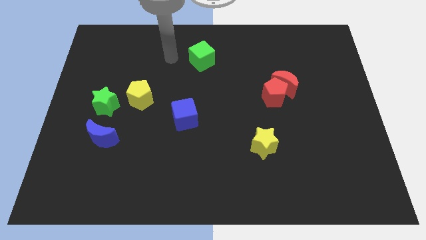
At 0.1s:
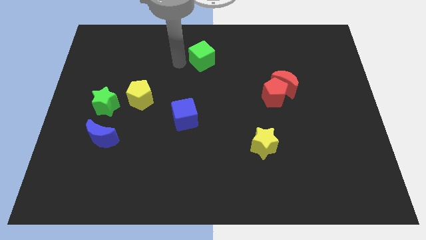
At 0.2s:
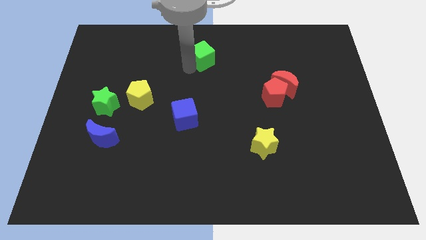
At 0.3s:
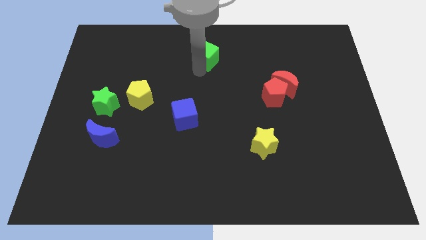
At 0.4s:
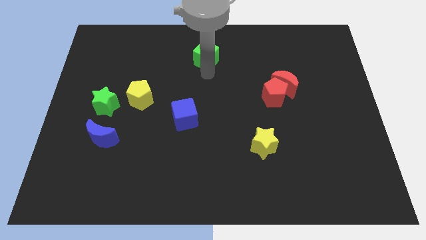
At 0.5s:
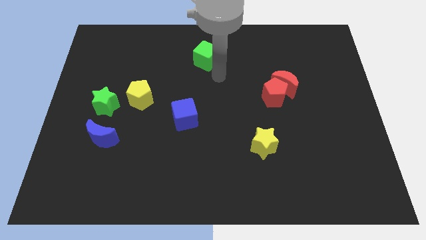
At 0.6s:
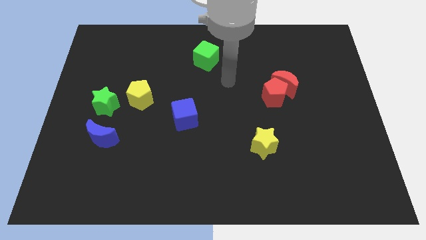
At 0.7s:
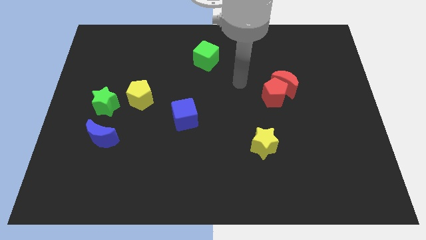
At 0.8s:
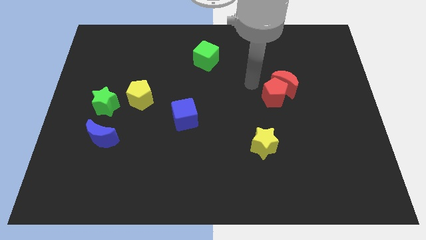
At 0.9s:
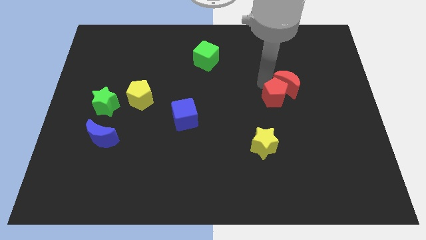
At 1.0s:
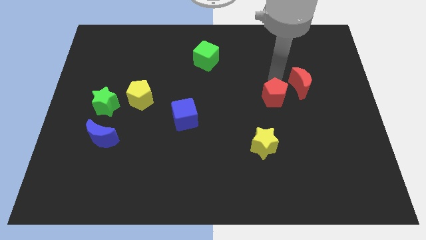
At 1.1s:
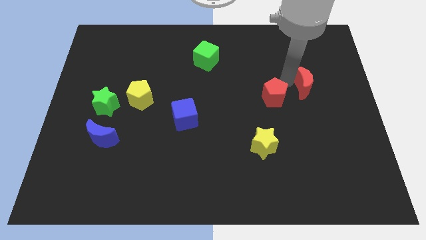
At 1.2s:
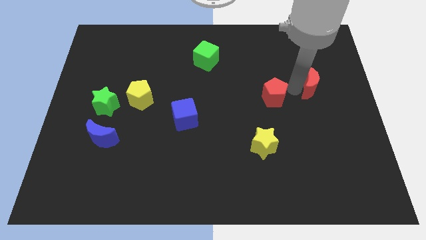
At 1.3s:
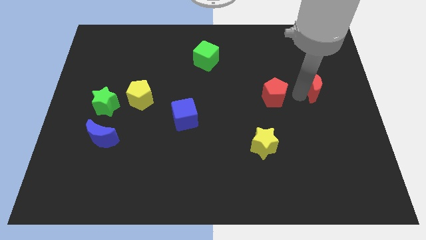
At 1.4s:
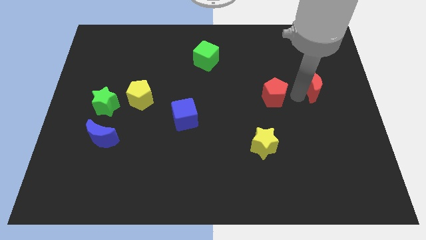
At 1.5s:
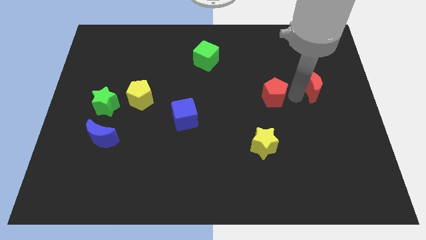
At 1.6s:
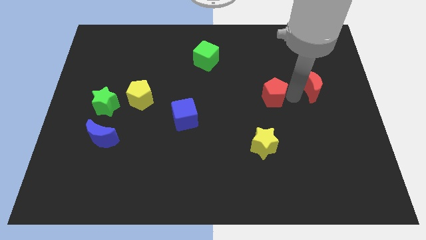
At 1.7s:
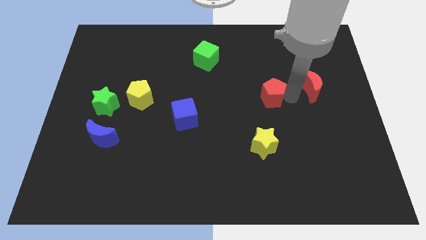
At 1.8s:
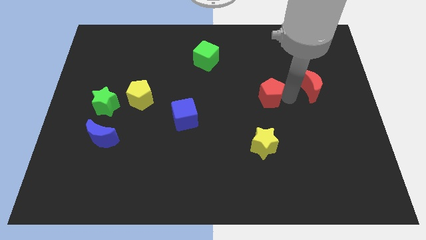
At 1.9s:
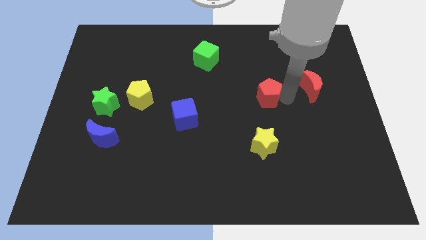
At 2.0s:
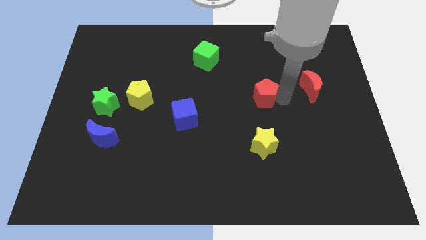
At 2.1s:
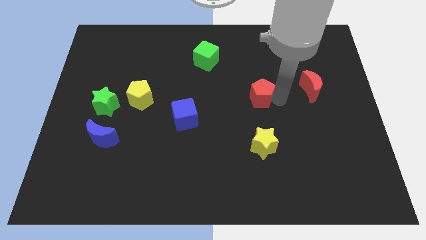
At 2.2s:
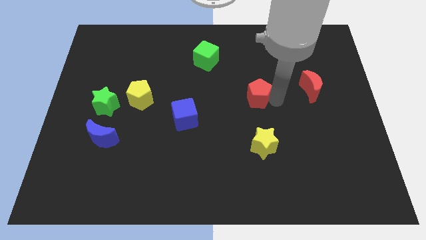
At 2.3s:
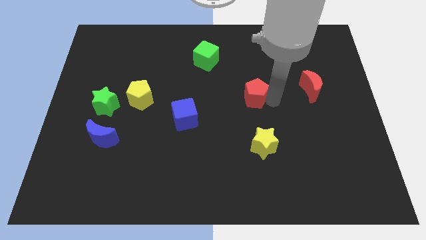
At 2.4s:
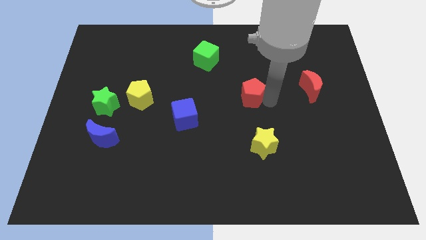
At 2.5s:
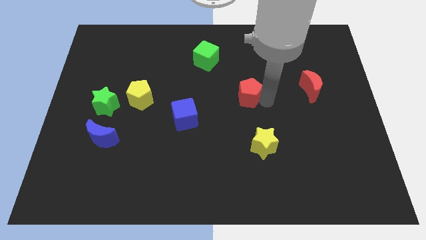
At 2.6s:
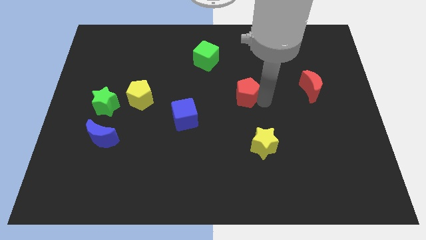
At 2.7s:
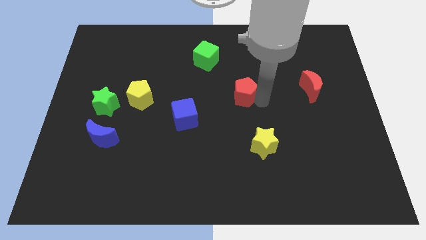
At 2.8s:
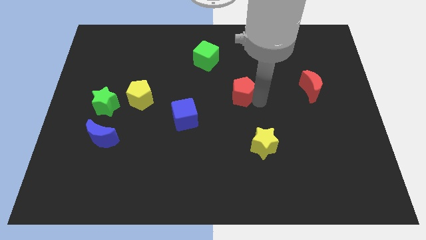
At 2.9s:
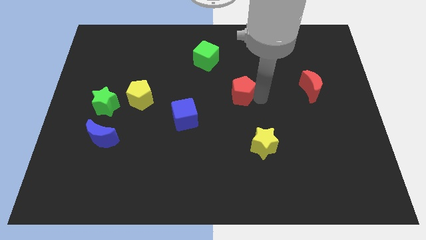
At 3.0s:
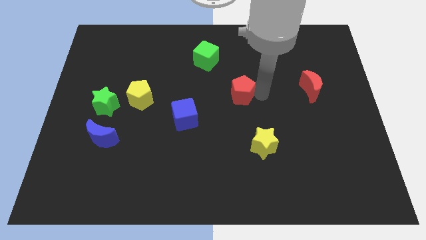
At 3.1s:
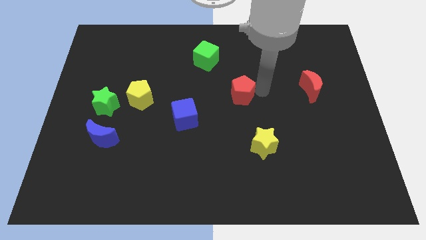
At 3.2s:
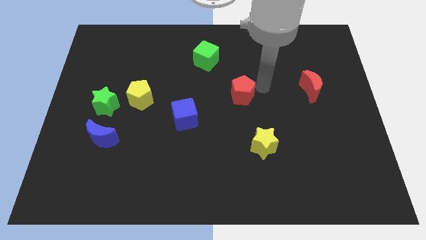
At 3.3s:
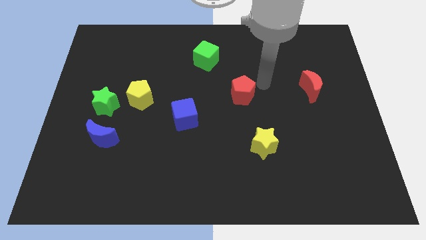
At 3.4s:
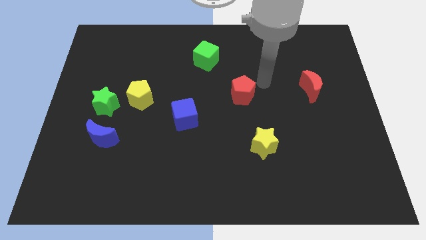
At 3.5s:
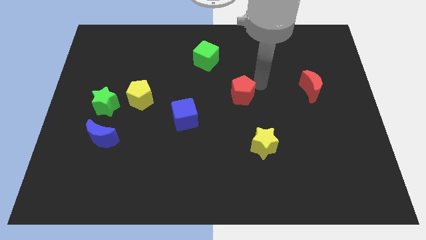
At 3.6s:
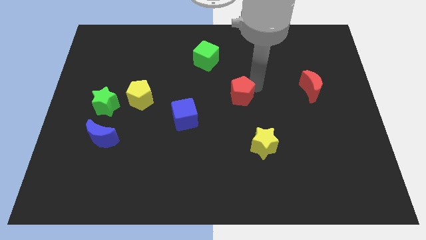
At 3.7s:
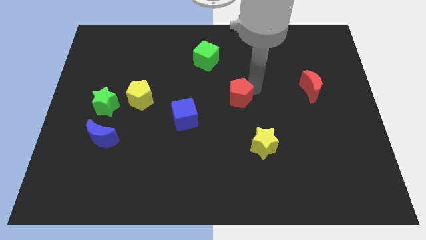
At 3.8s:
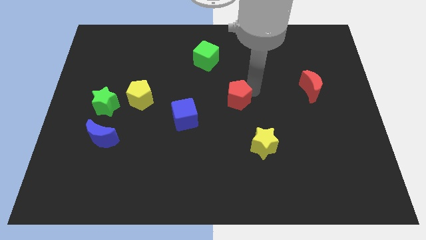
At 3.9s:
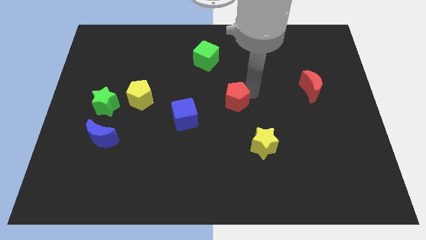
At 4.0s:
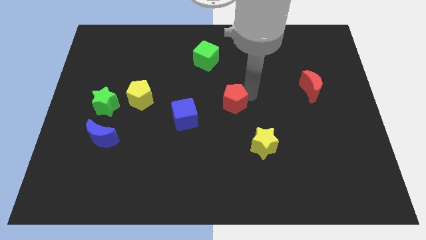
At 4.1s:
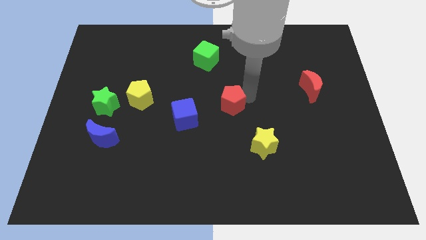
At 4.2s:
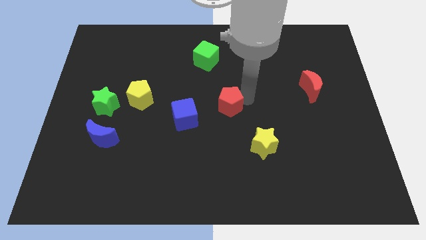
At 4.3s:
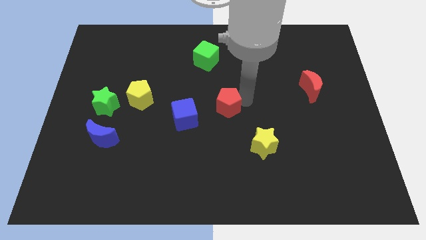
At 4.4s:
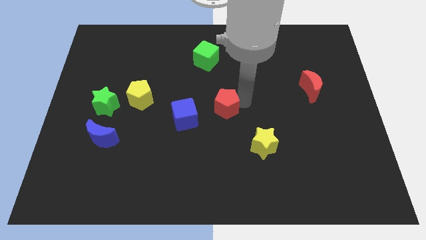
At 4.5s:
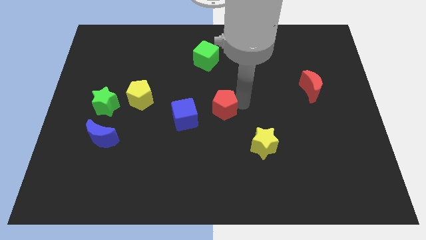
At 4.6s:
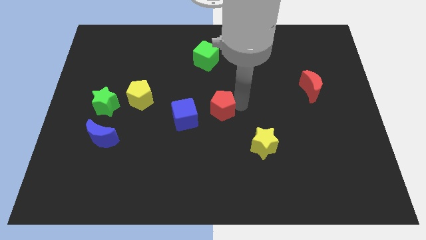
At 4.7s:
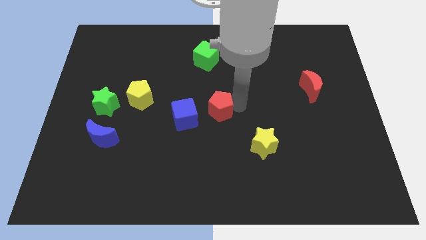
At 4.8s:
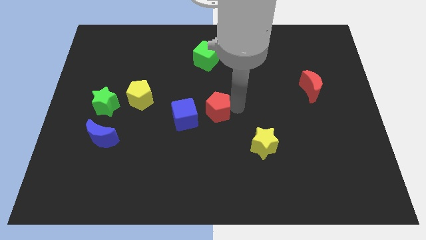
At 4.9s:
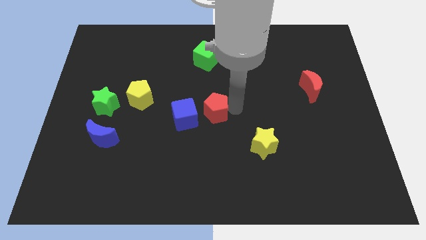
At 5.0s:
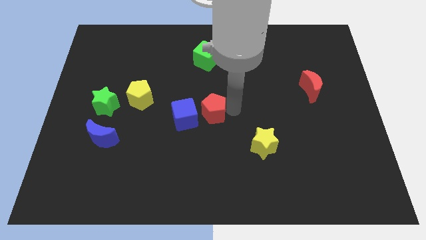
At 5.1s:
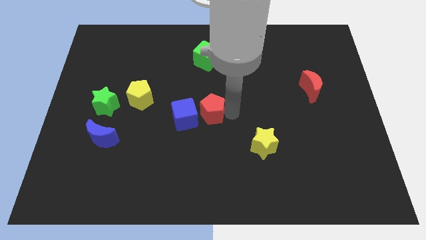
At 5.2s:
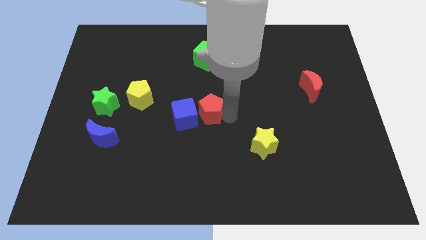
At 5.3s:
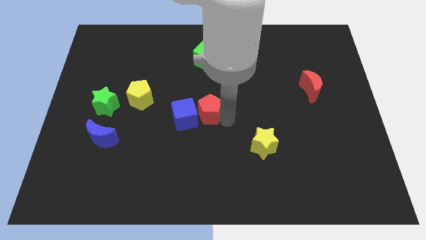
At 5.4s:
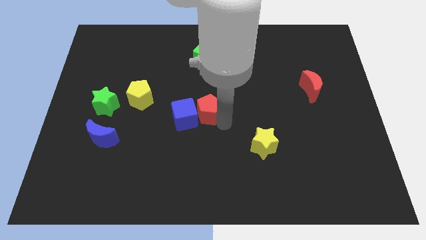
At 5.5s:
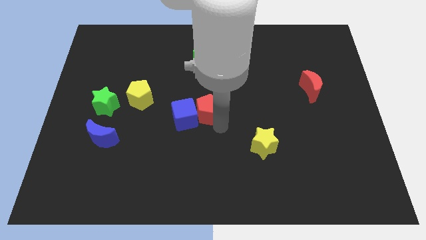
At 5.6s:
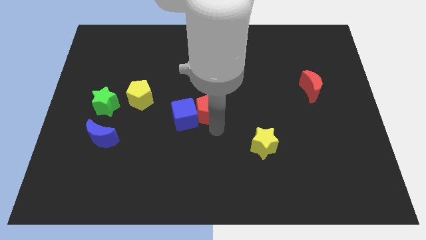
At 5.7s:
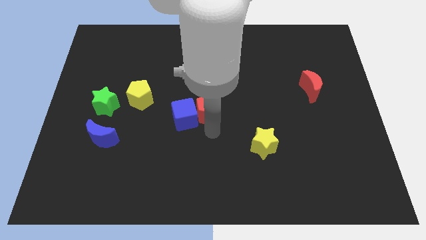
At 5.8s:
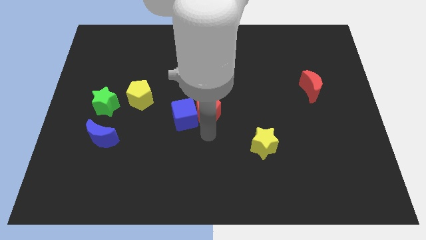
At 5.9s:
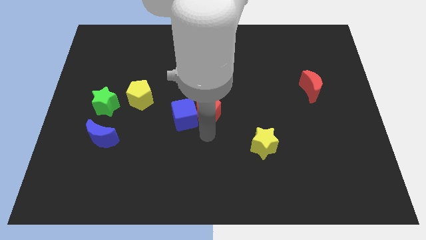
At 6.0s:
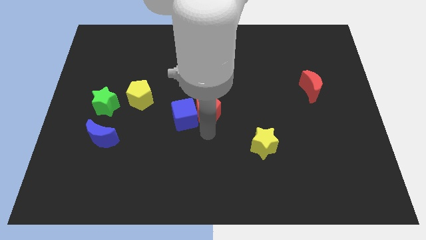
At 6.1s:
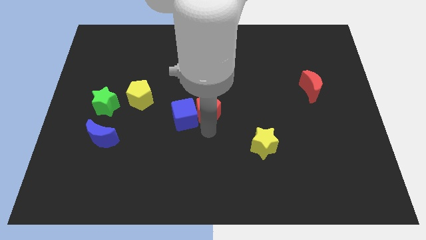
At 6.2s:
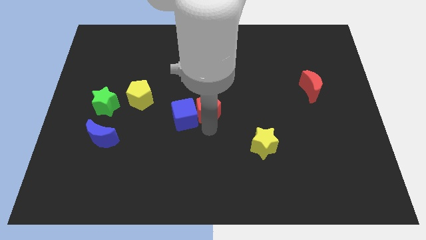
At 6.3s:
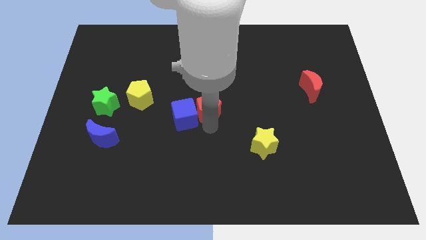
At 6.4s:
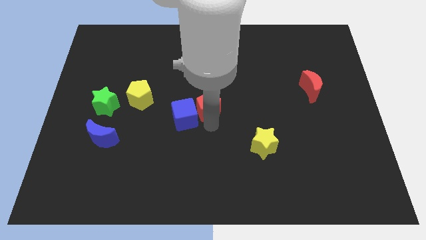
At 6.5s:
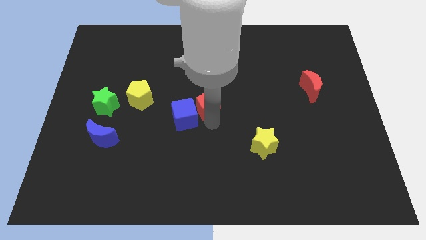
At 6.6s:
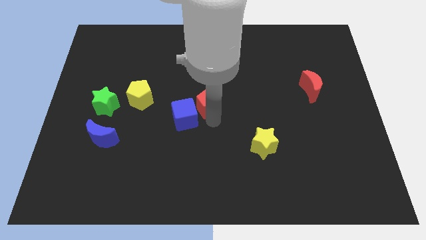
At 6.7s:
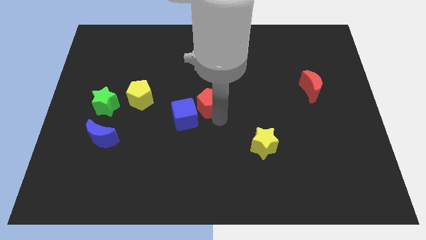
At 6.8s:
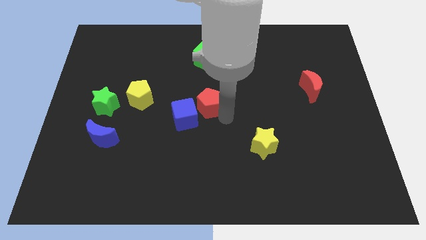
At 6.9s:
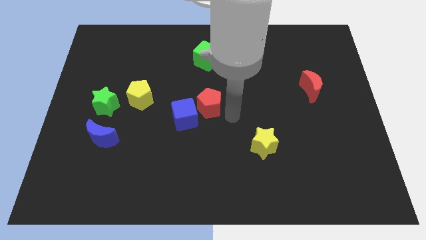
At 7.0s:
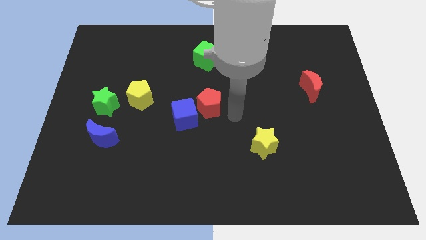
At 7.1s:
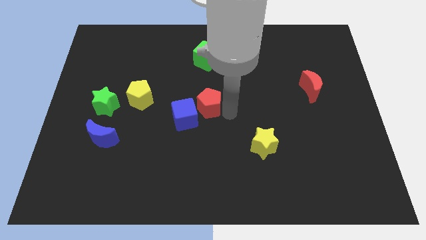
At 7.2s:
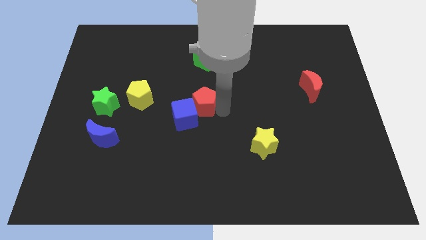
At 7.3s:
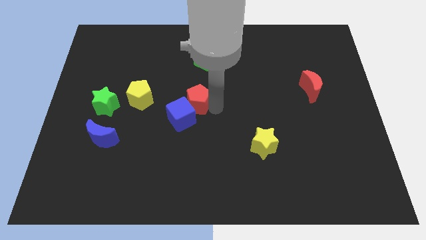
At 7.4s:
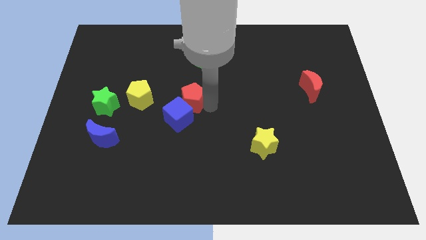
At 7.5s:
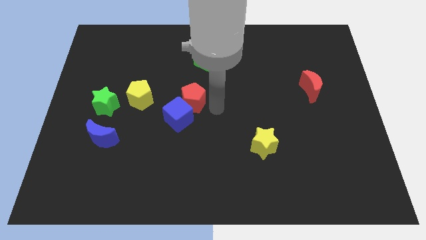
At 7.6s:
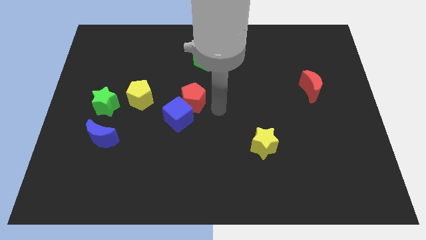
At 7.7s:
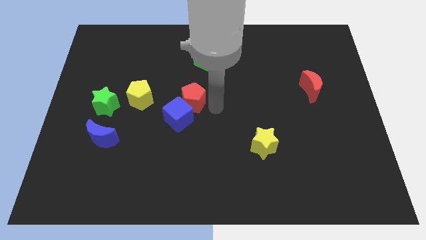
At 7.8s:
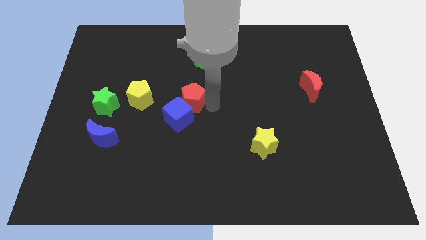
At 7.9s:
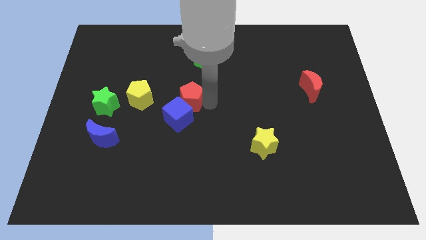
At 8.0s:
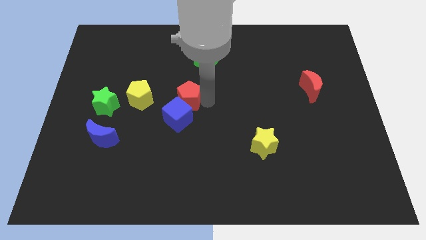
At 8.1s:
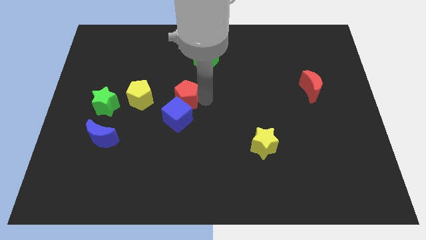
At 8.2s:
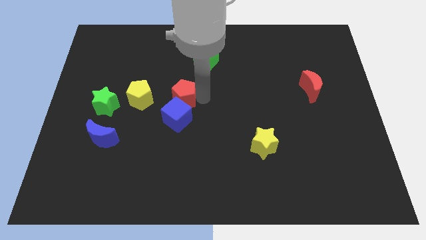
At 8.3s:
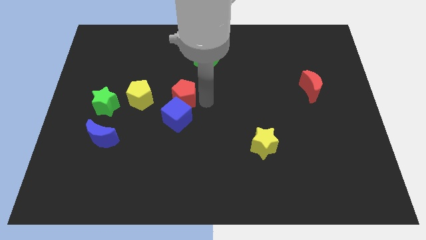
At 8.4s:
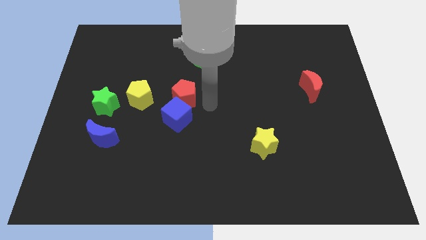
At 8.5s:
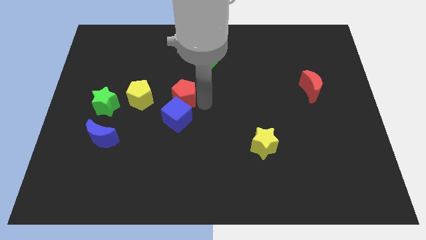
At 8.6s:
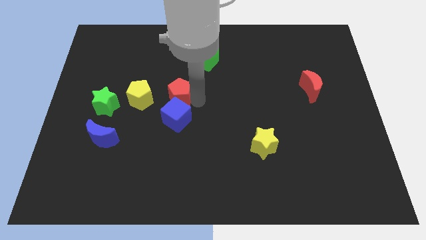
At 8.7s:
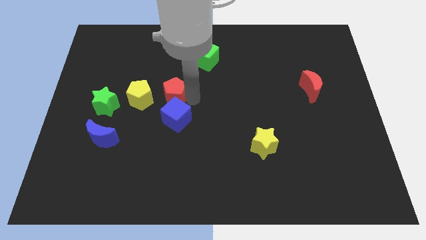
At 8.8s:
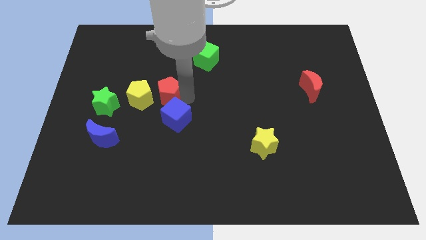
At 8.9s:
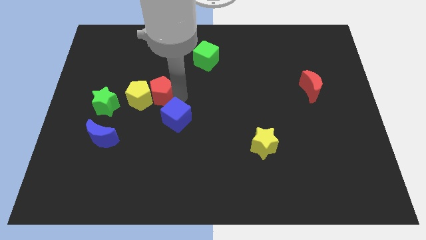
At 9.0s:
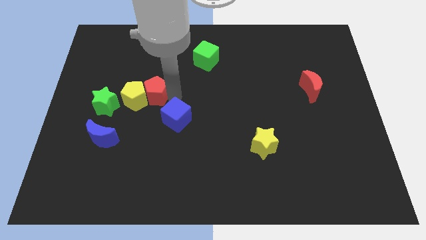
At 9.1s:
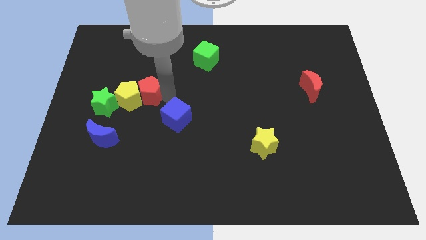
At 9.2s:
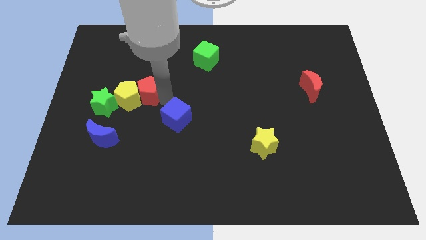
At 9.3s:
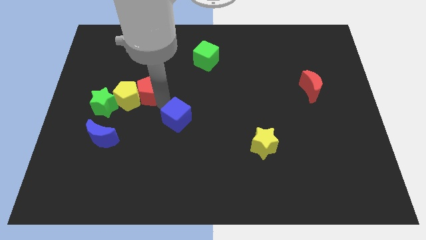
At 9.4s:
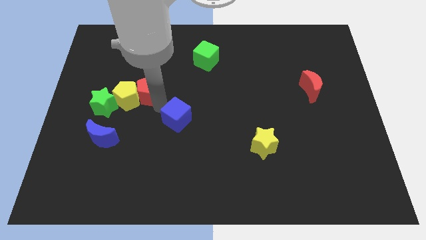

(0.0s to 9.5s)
move the red pentagon to the top right of the green star
